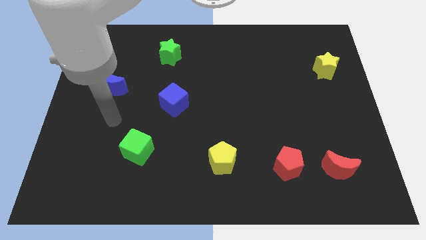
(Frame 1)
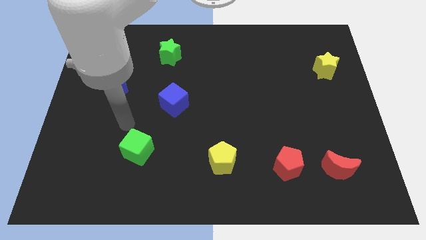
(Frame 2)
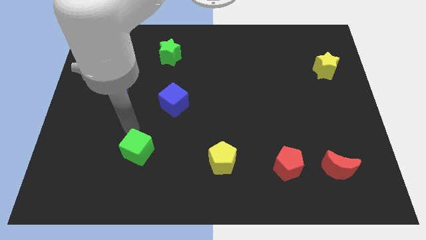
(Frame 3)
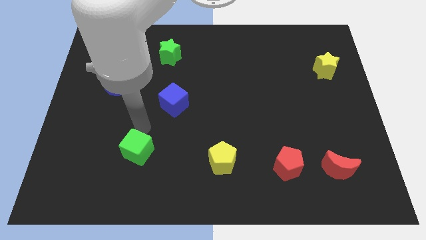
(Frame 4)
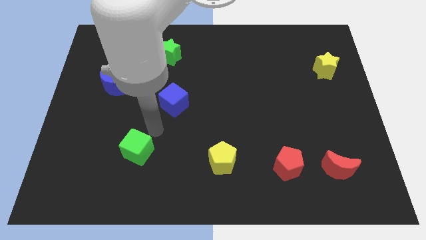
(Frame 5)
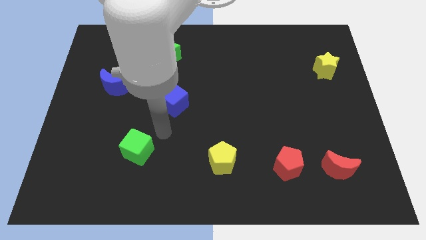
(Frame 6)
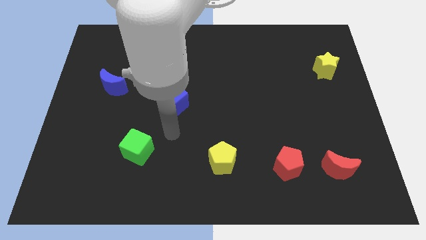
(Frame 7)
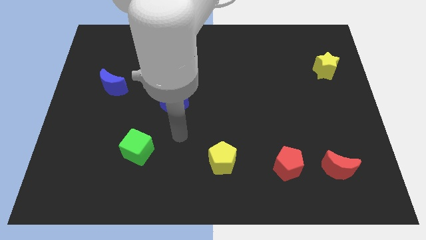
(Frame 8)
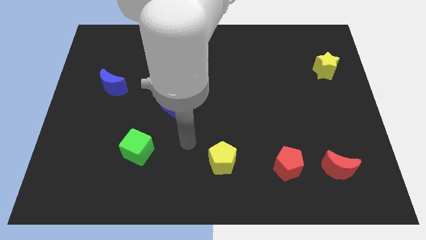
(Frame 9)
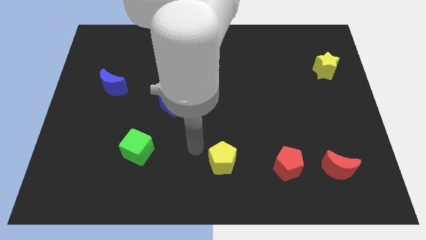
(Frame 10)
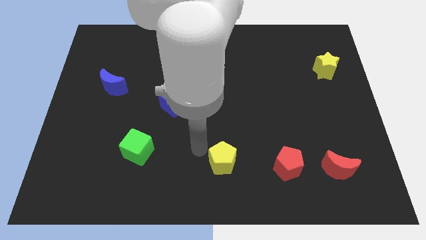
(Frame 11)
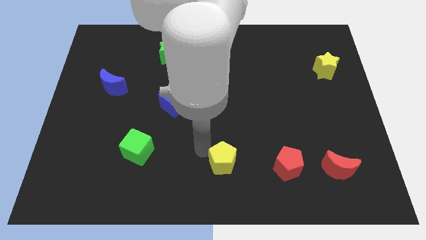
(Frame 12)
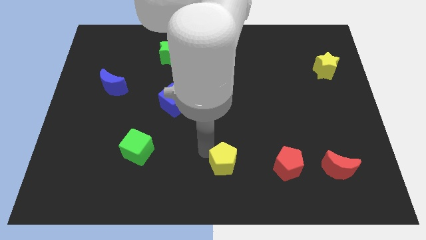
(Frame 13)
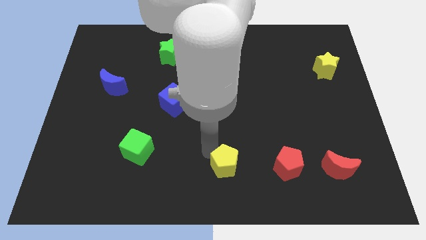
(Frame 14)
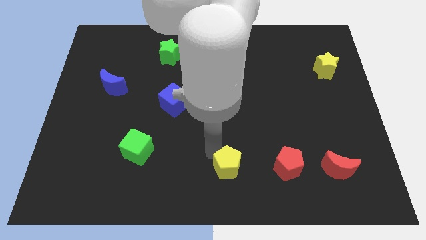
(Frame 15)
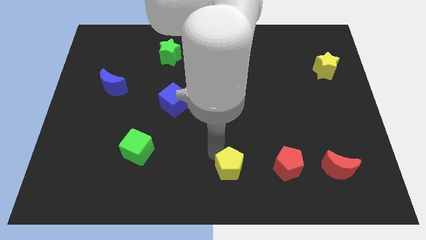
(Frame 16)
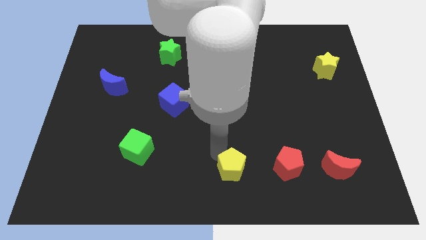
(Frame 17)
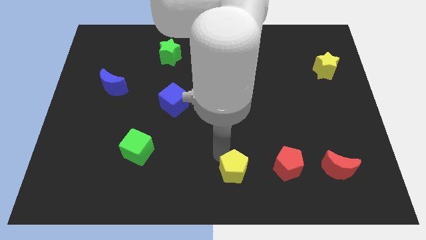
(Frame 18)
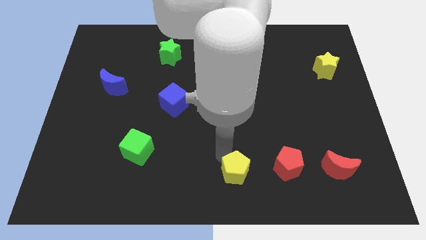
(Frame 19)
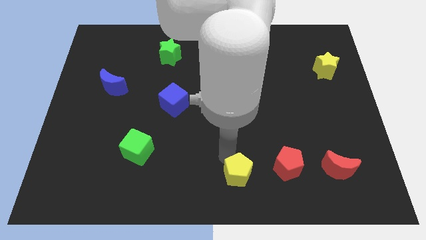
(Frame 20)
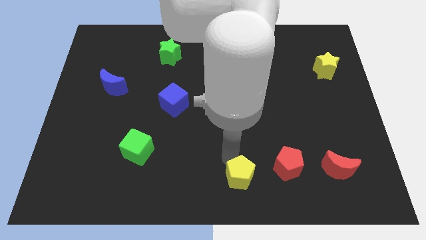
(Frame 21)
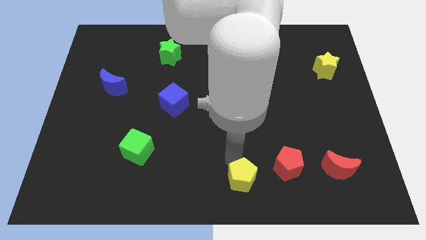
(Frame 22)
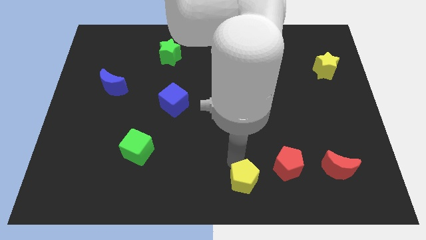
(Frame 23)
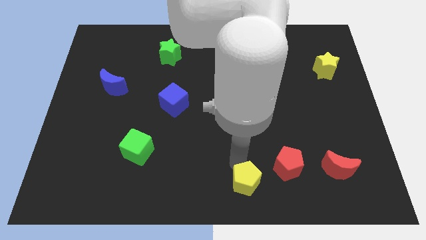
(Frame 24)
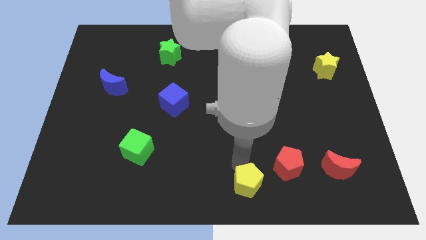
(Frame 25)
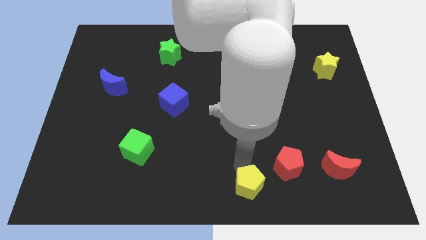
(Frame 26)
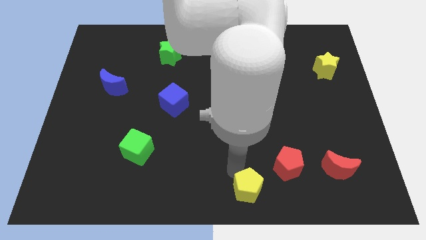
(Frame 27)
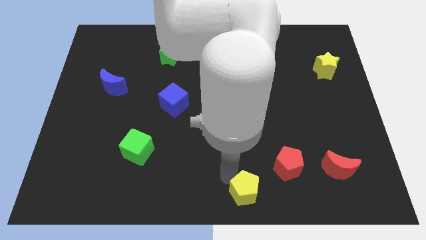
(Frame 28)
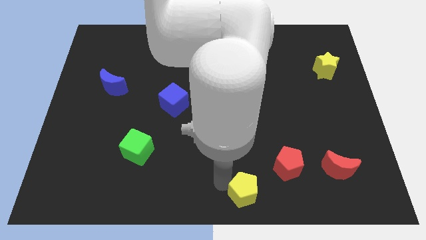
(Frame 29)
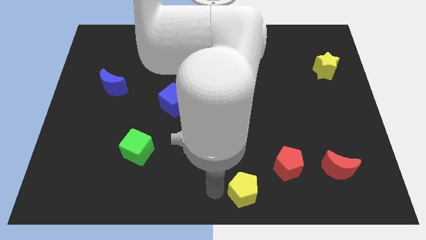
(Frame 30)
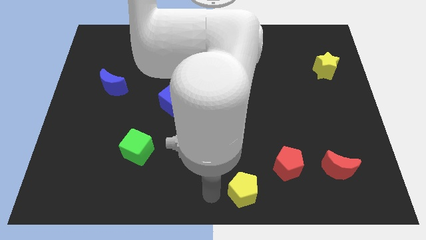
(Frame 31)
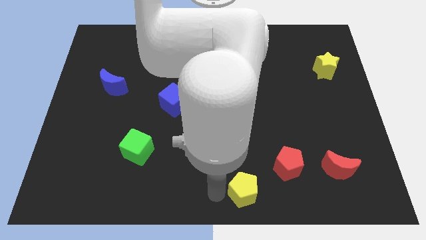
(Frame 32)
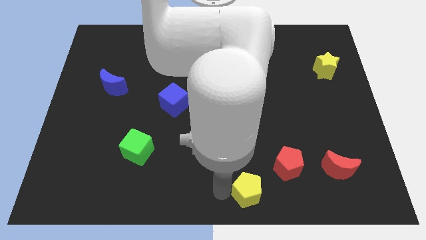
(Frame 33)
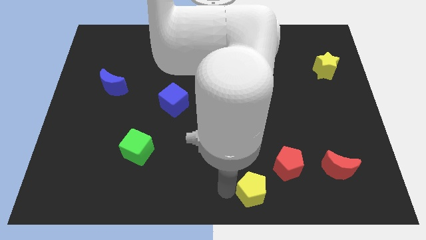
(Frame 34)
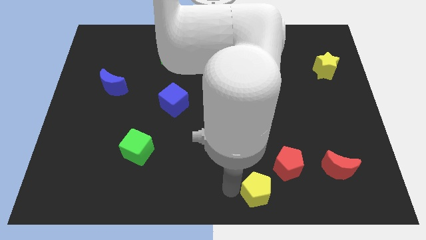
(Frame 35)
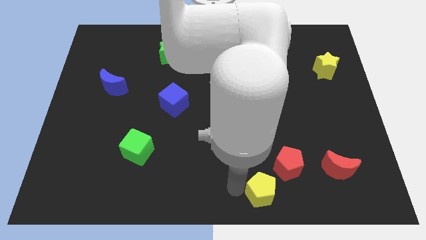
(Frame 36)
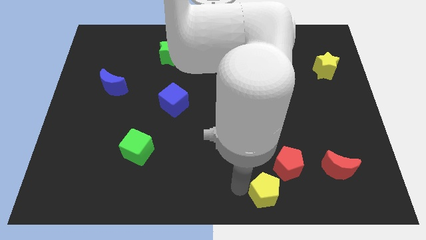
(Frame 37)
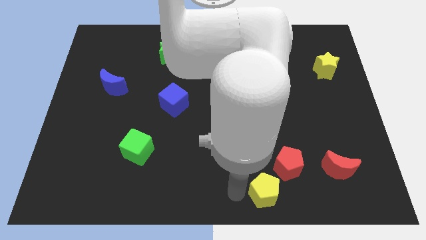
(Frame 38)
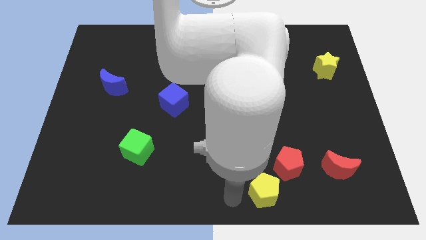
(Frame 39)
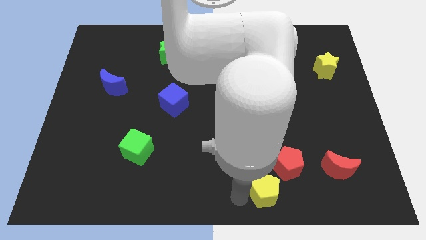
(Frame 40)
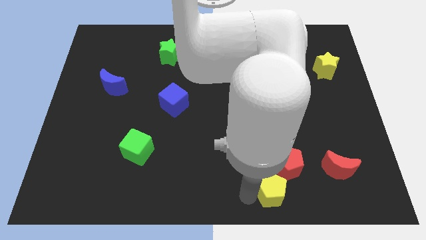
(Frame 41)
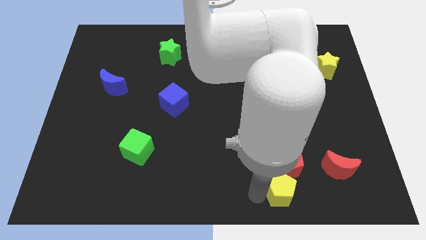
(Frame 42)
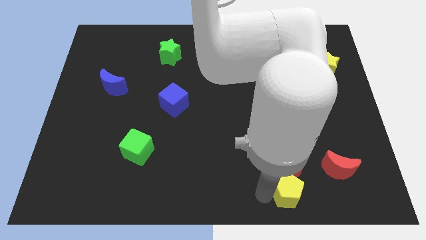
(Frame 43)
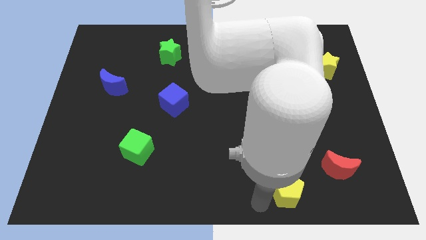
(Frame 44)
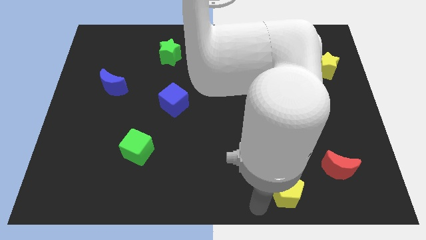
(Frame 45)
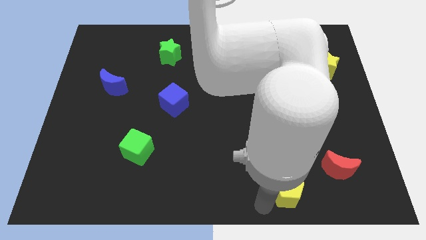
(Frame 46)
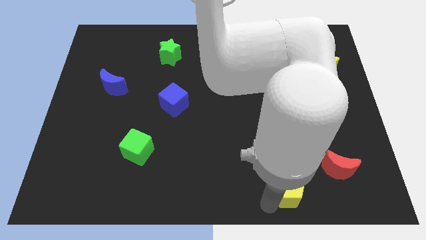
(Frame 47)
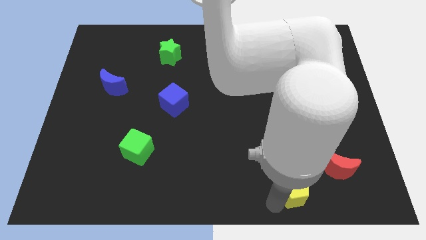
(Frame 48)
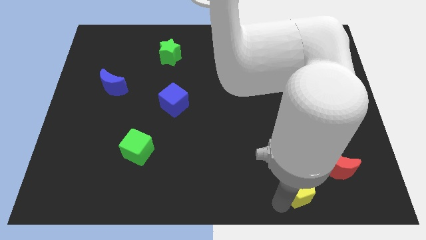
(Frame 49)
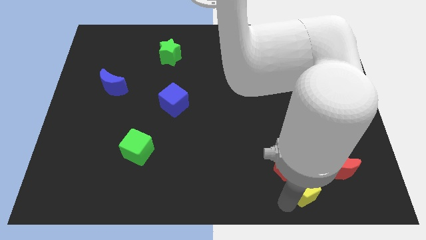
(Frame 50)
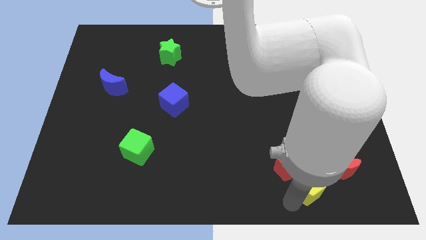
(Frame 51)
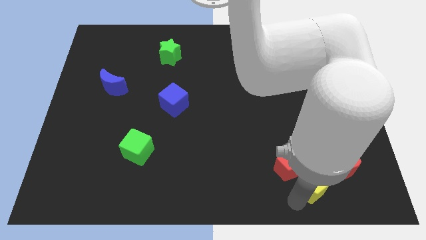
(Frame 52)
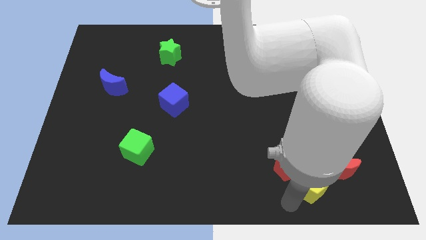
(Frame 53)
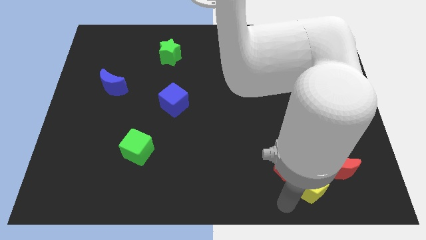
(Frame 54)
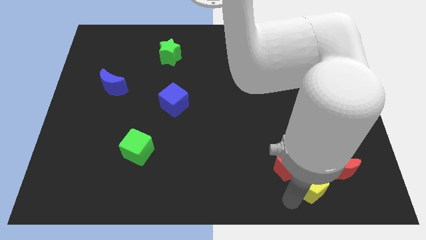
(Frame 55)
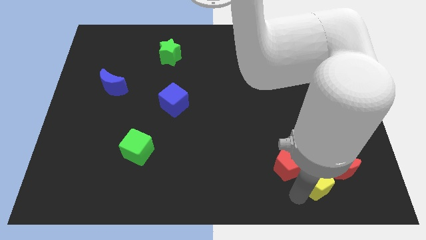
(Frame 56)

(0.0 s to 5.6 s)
slide the yellow pentagon towards the red moon

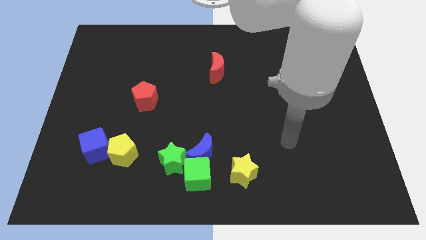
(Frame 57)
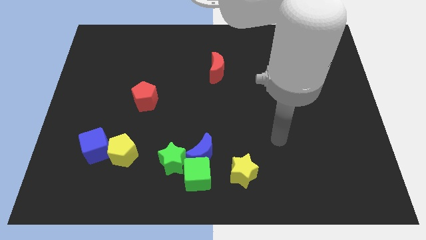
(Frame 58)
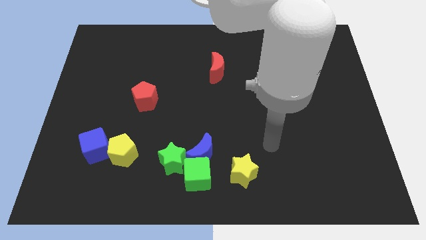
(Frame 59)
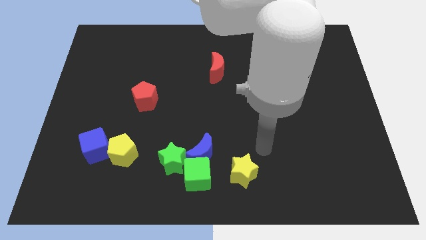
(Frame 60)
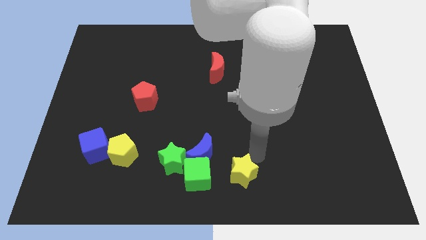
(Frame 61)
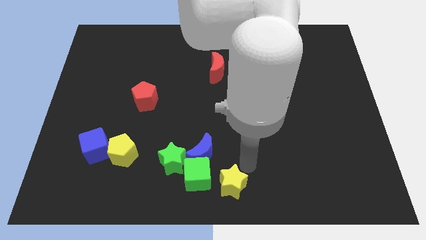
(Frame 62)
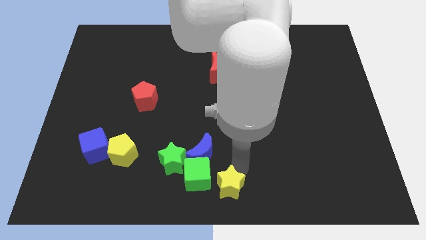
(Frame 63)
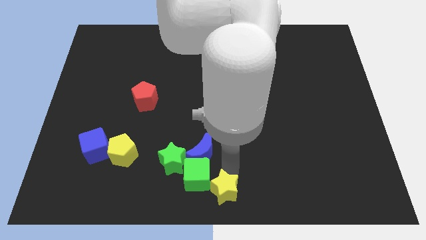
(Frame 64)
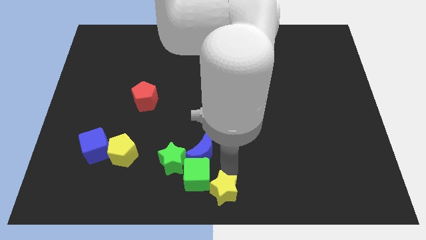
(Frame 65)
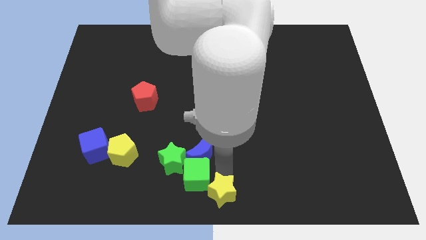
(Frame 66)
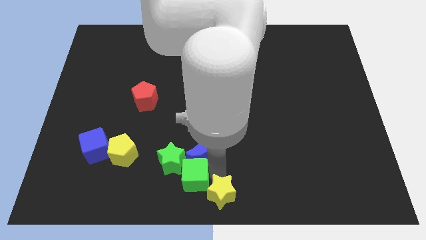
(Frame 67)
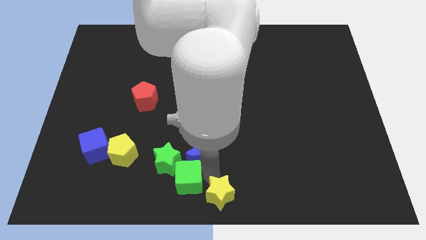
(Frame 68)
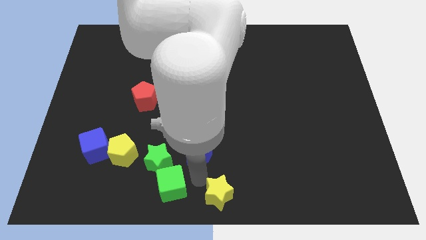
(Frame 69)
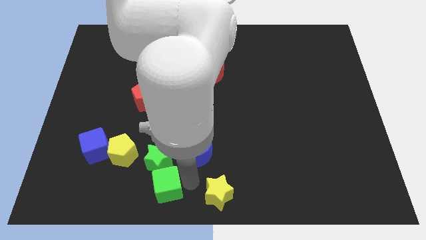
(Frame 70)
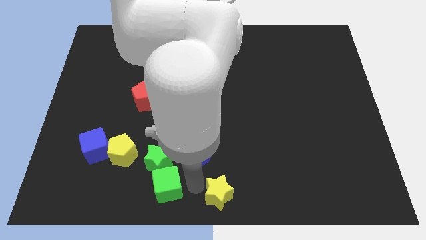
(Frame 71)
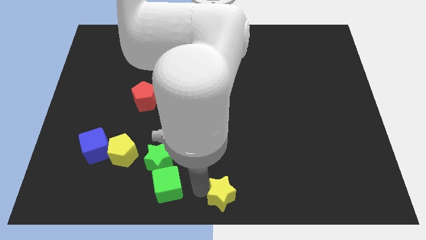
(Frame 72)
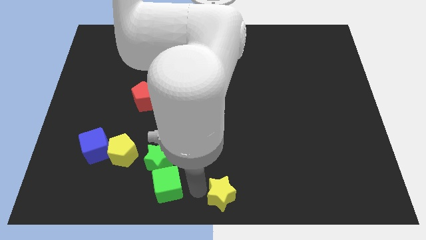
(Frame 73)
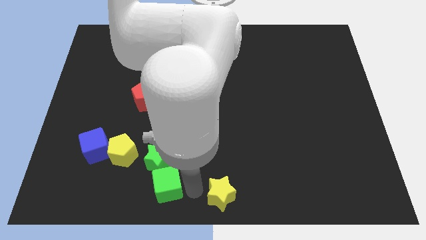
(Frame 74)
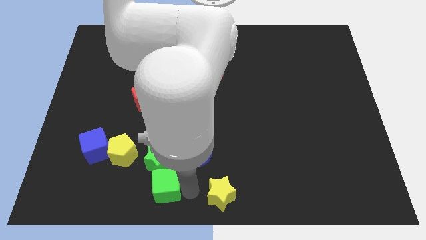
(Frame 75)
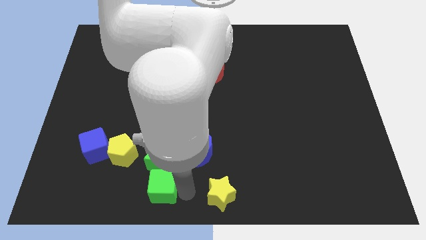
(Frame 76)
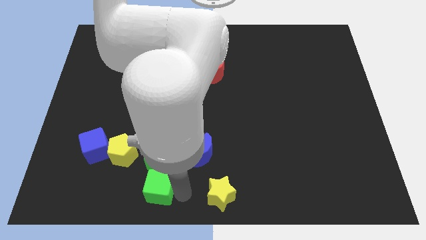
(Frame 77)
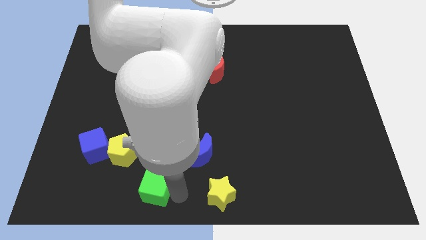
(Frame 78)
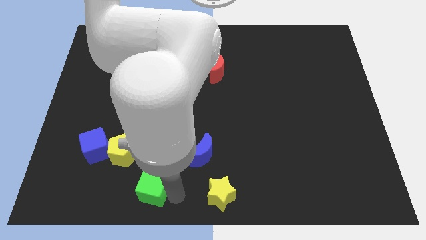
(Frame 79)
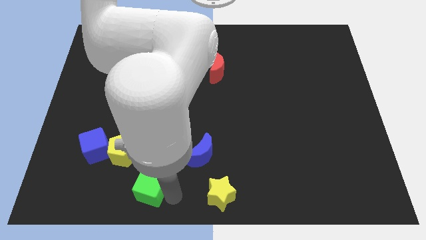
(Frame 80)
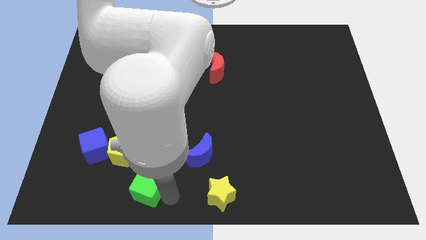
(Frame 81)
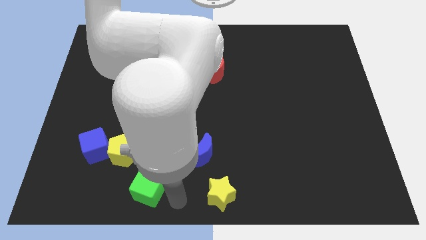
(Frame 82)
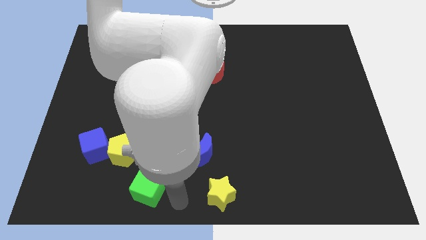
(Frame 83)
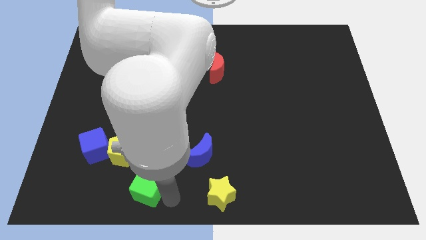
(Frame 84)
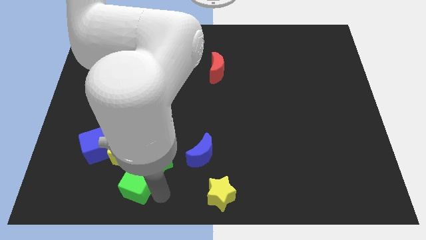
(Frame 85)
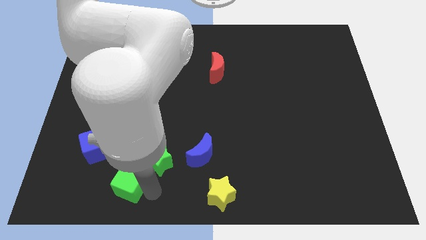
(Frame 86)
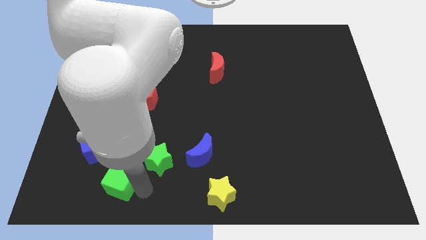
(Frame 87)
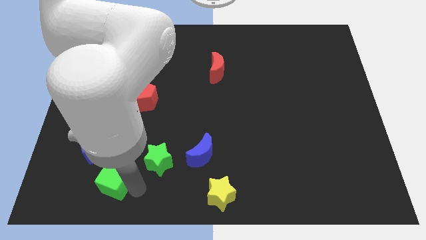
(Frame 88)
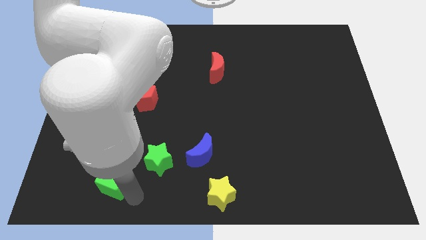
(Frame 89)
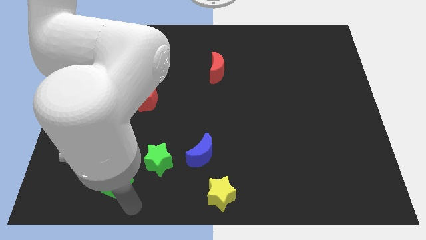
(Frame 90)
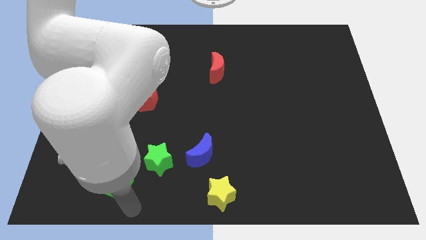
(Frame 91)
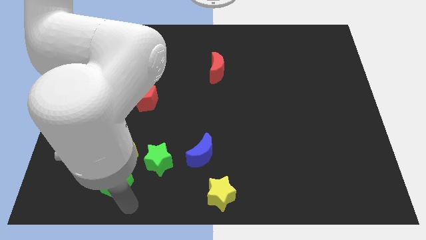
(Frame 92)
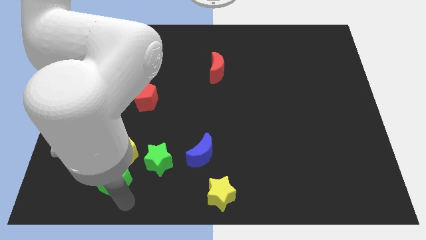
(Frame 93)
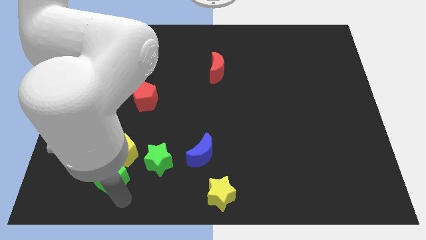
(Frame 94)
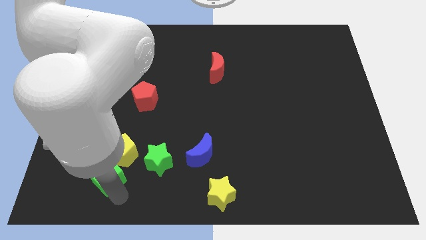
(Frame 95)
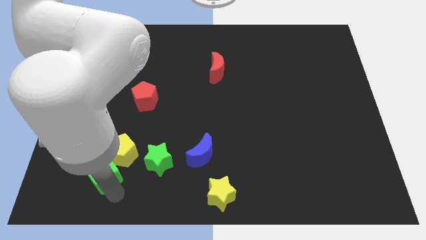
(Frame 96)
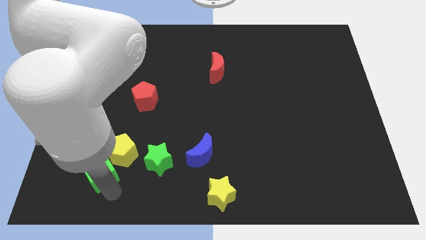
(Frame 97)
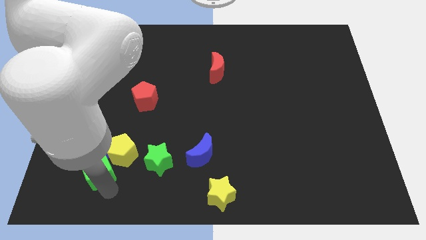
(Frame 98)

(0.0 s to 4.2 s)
push the green cube to the blue cube
